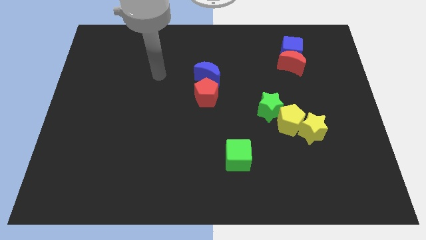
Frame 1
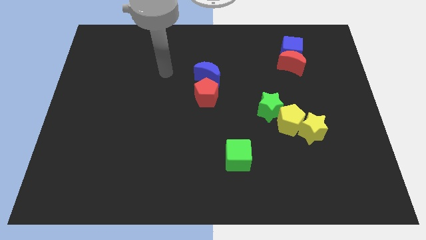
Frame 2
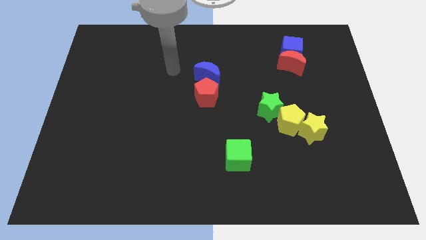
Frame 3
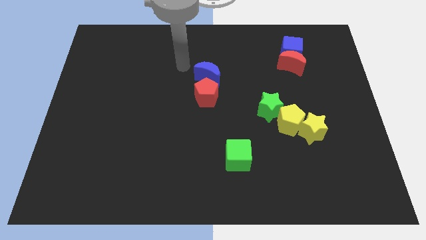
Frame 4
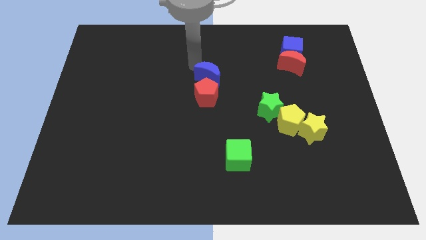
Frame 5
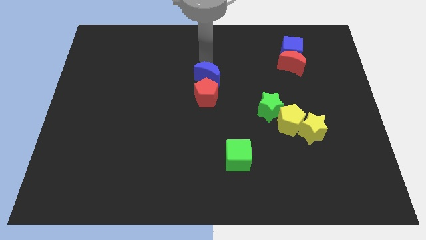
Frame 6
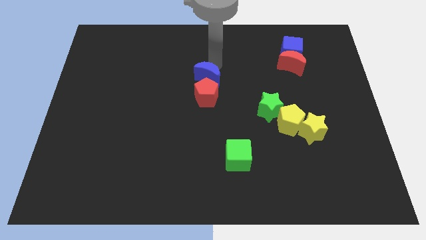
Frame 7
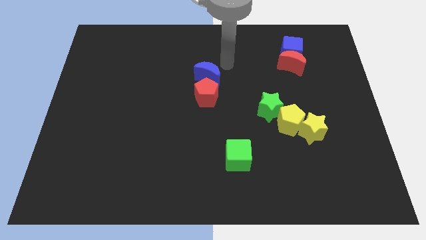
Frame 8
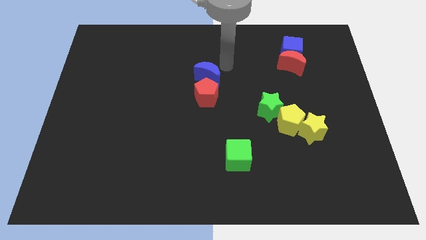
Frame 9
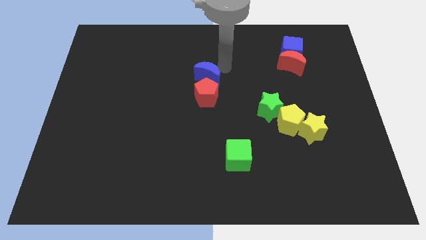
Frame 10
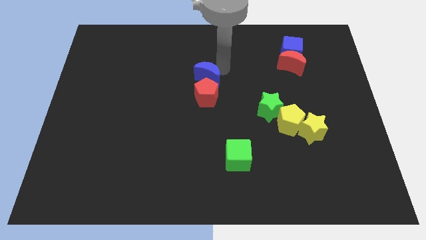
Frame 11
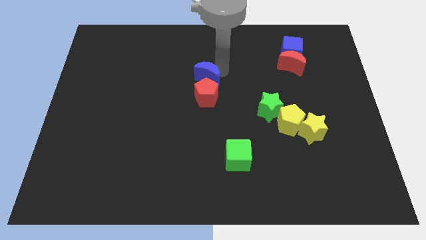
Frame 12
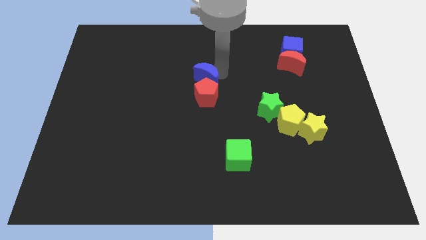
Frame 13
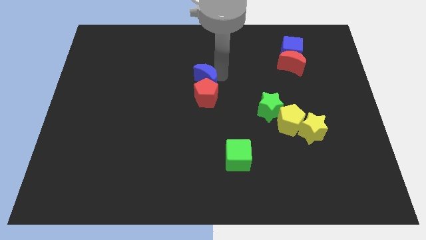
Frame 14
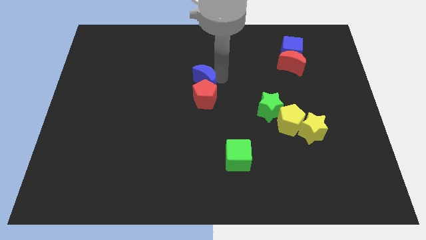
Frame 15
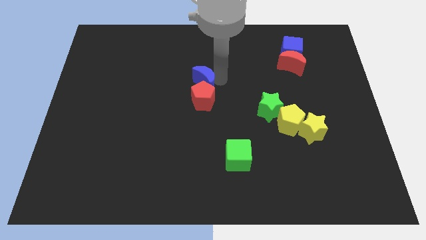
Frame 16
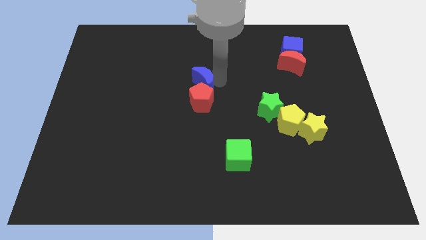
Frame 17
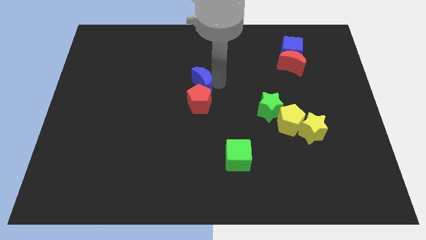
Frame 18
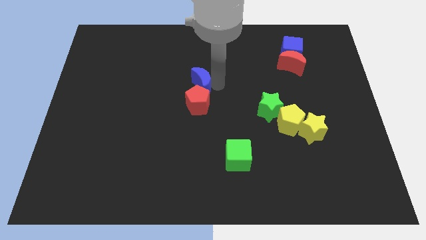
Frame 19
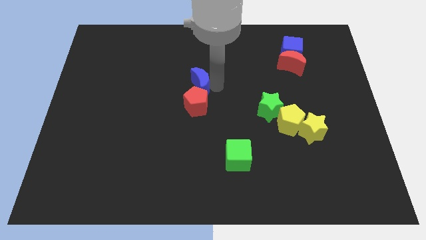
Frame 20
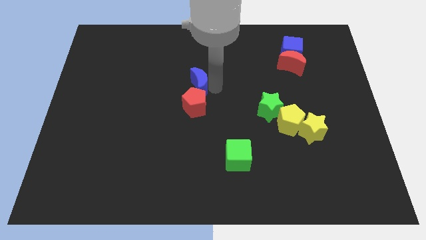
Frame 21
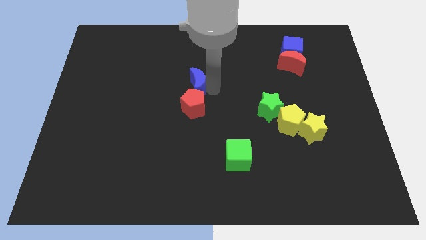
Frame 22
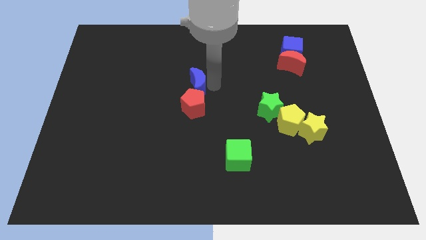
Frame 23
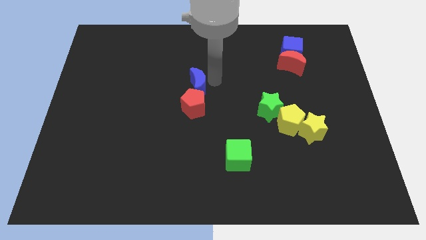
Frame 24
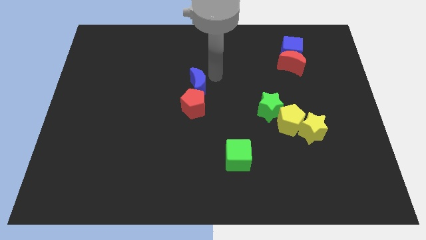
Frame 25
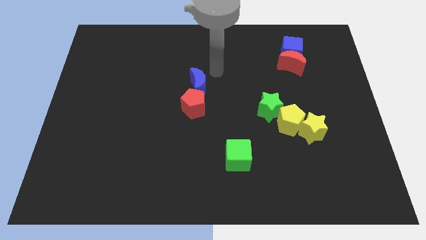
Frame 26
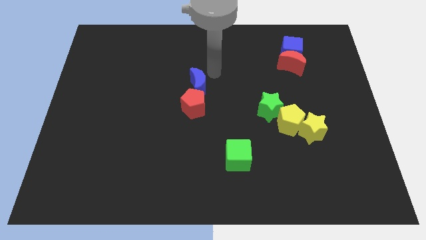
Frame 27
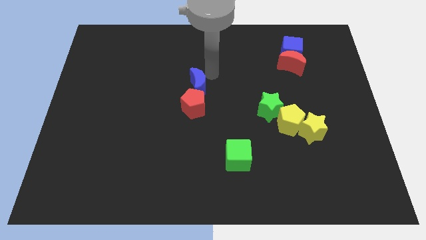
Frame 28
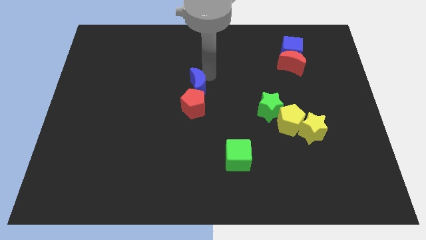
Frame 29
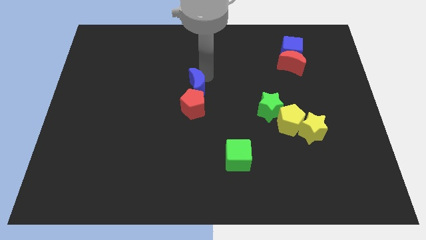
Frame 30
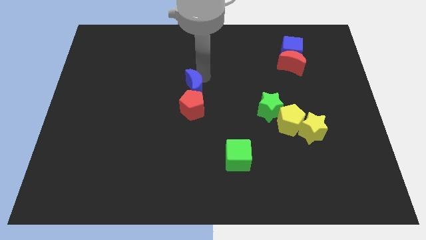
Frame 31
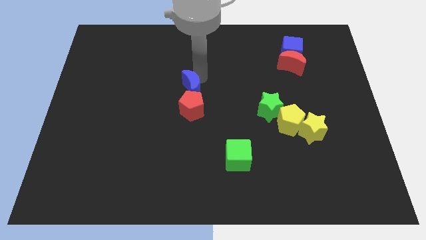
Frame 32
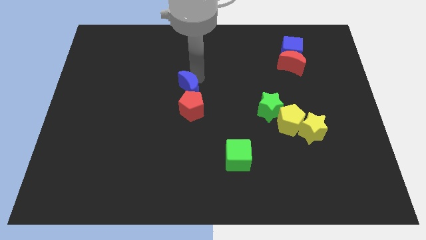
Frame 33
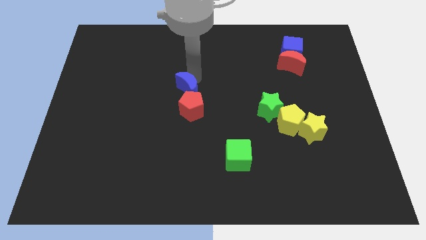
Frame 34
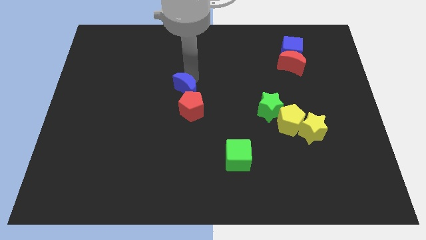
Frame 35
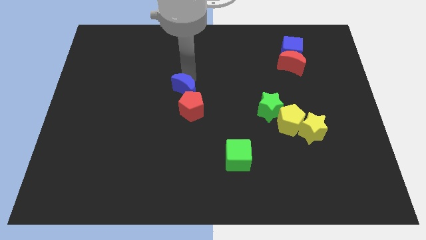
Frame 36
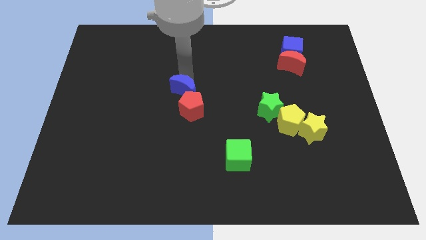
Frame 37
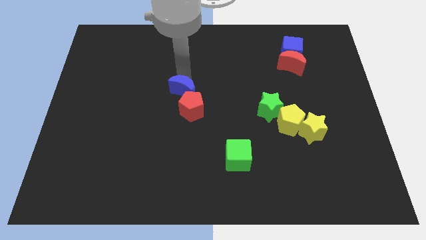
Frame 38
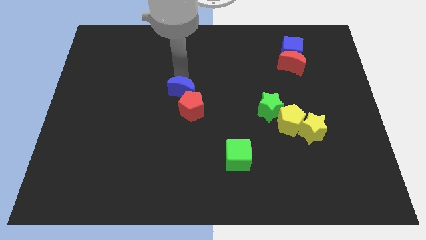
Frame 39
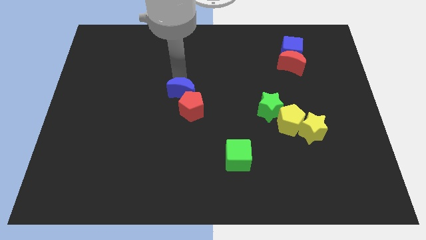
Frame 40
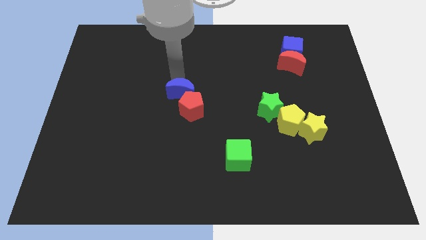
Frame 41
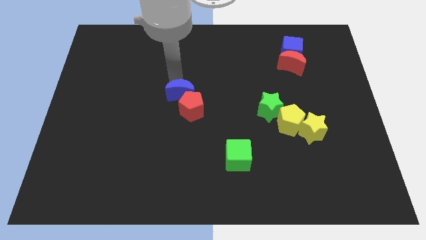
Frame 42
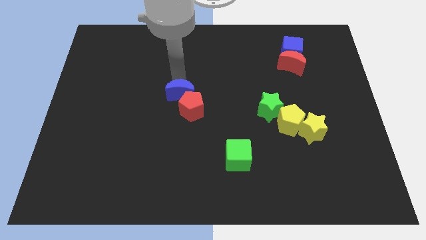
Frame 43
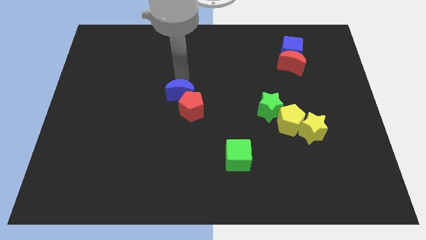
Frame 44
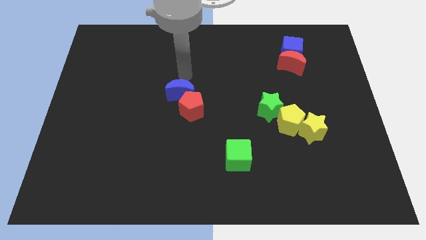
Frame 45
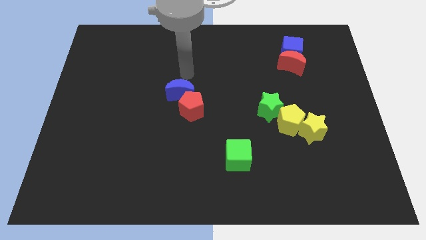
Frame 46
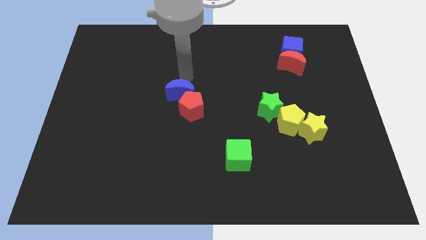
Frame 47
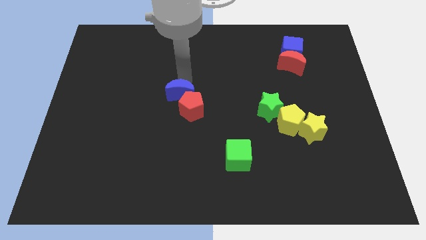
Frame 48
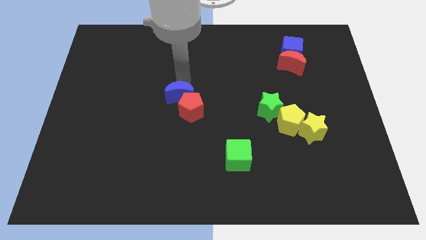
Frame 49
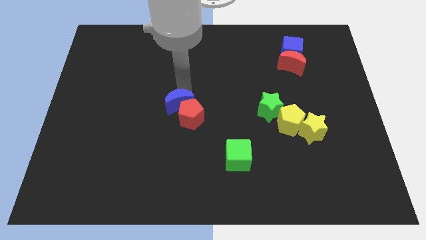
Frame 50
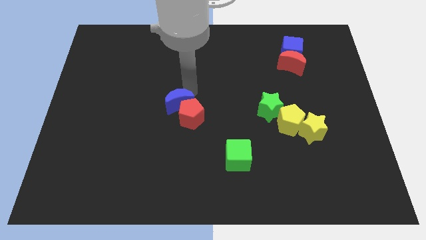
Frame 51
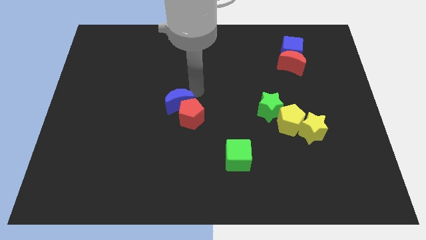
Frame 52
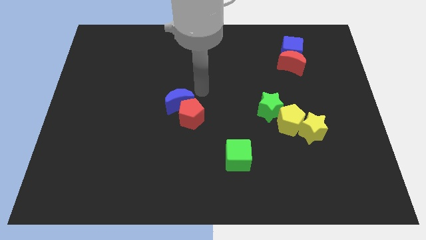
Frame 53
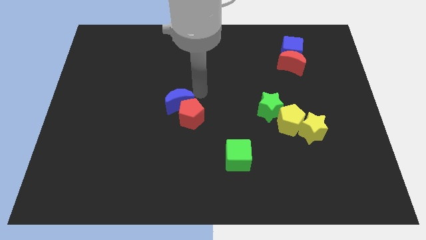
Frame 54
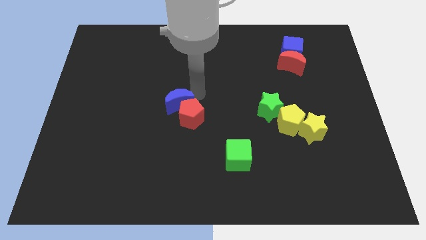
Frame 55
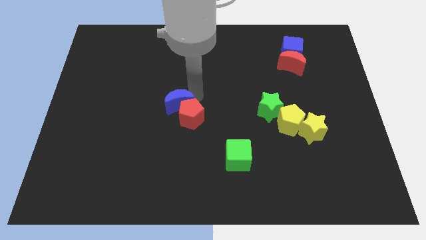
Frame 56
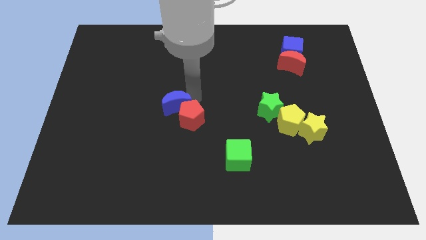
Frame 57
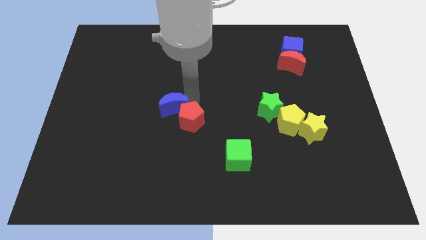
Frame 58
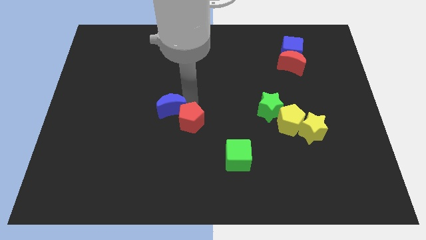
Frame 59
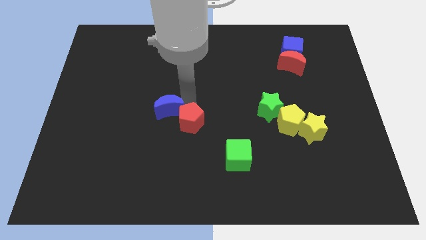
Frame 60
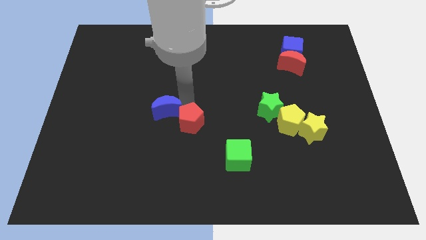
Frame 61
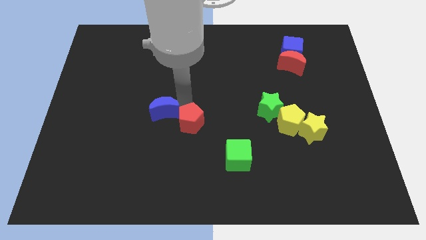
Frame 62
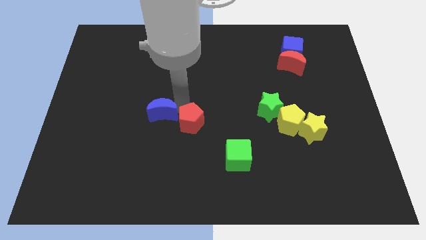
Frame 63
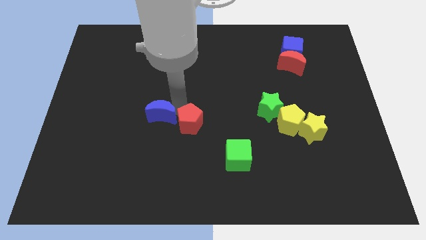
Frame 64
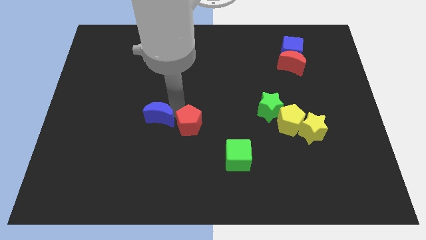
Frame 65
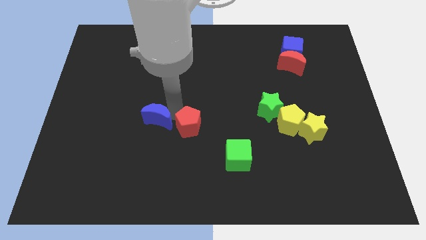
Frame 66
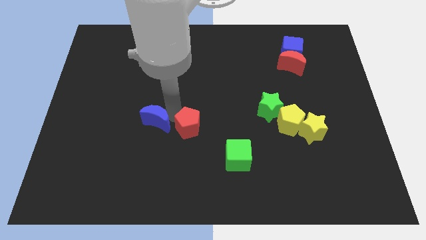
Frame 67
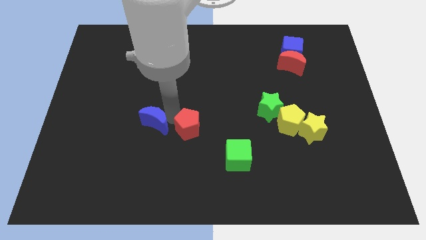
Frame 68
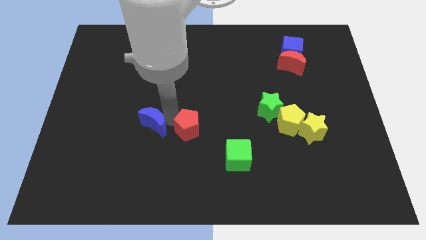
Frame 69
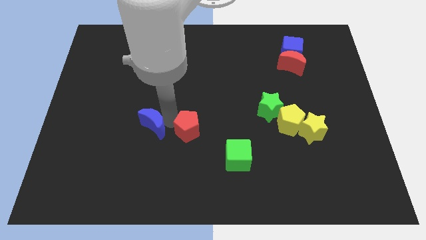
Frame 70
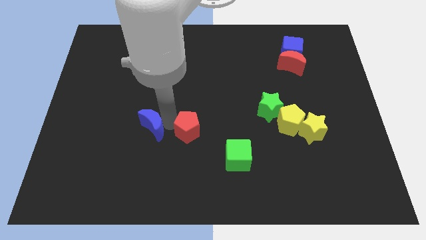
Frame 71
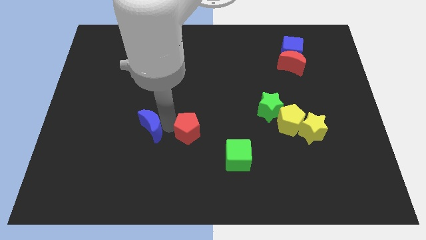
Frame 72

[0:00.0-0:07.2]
push the blue moon diagonally downwards and left

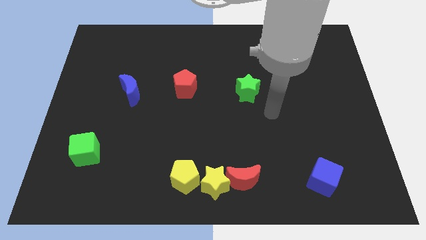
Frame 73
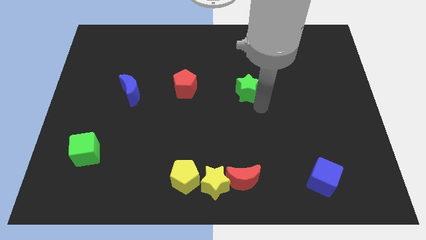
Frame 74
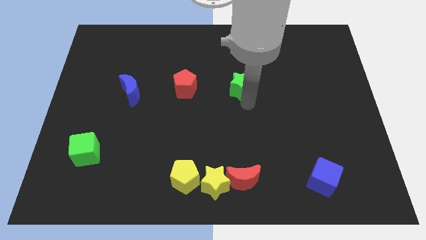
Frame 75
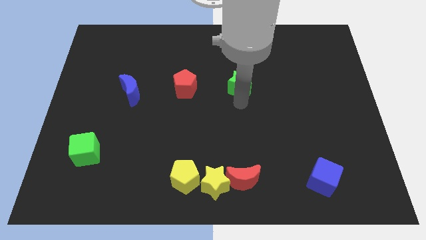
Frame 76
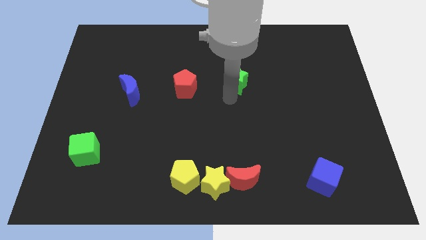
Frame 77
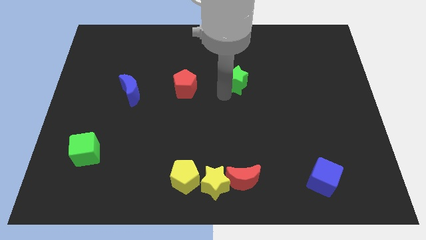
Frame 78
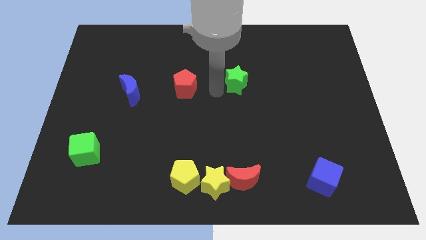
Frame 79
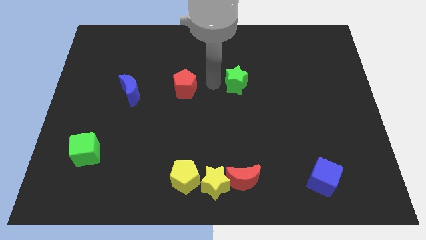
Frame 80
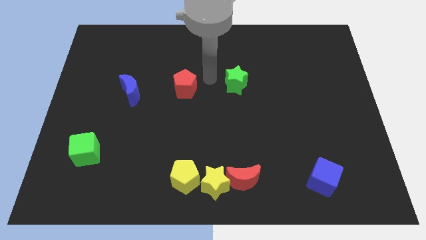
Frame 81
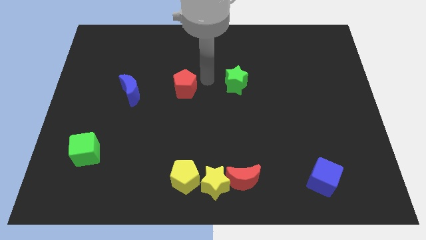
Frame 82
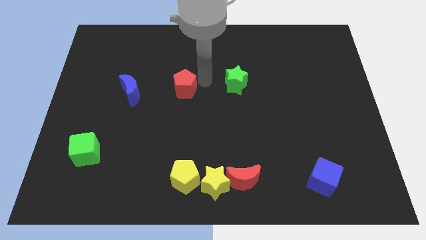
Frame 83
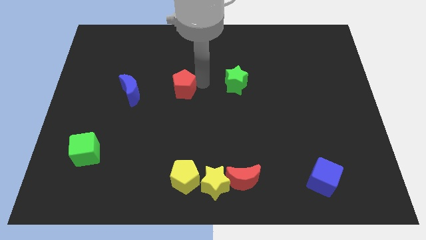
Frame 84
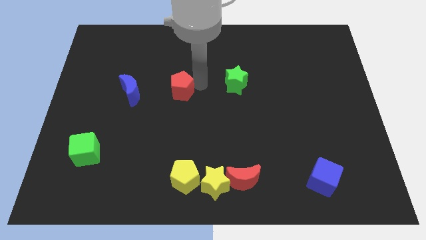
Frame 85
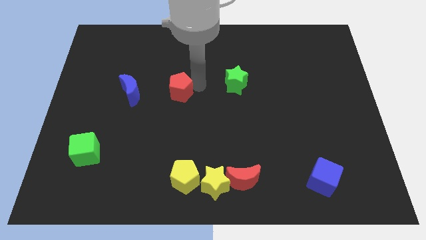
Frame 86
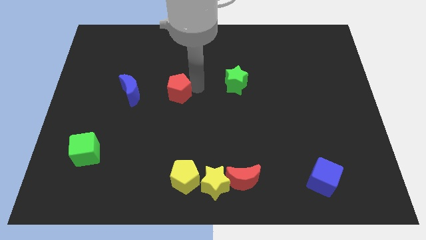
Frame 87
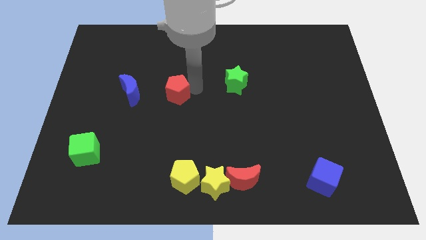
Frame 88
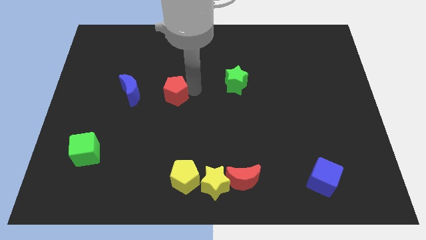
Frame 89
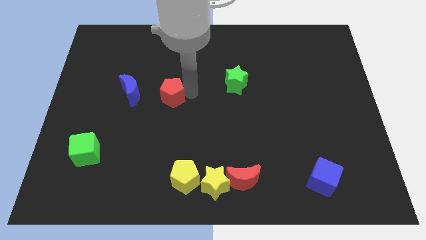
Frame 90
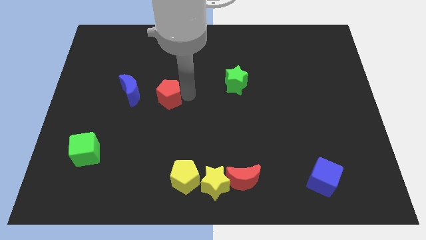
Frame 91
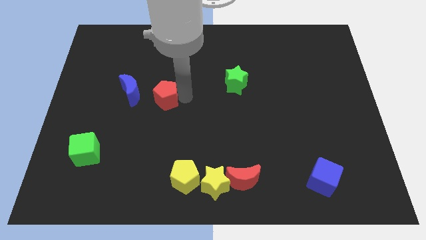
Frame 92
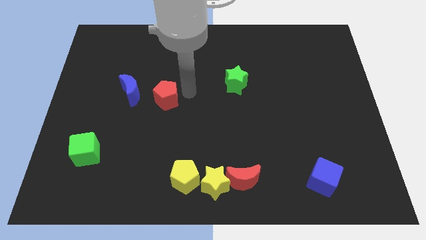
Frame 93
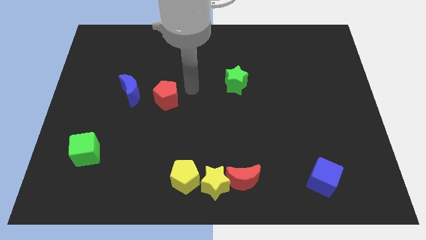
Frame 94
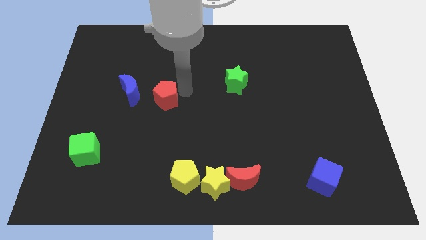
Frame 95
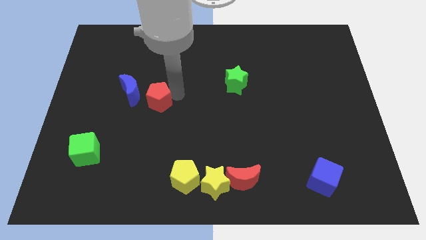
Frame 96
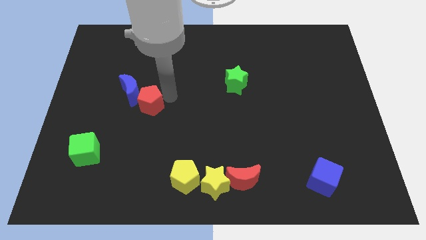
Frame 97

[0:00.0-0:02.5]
slightly move the red pentagon left
